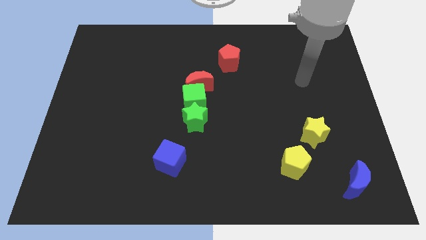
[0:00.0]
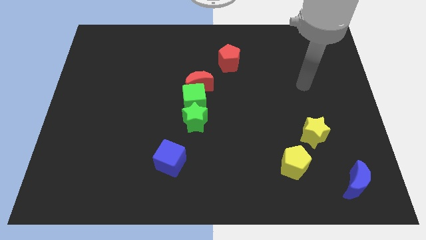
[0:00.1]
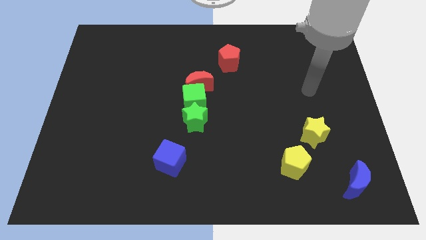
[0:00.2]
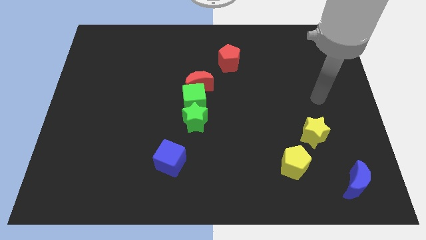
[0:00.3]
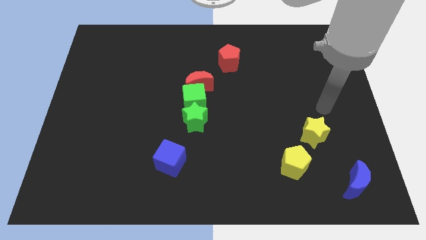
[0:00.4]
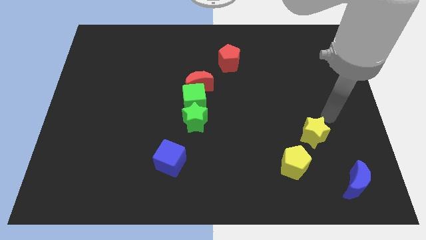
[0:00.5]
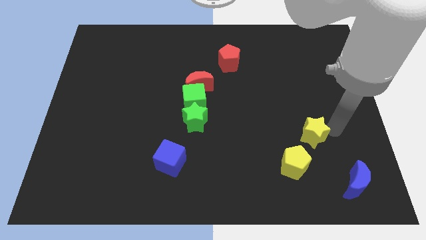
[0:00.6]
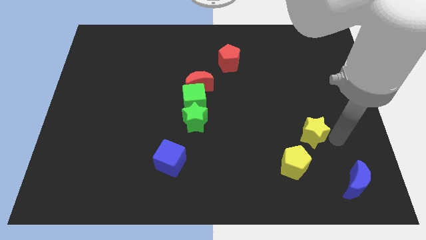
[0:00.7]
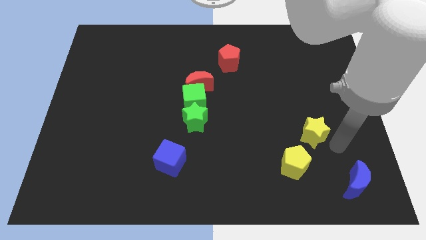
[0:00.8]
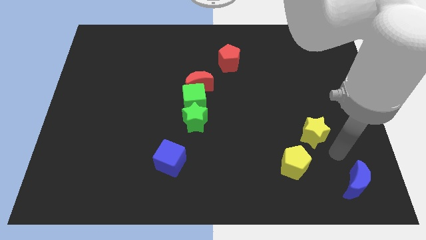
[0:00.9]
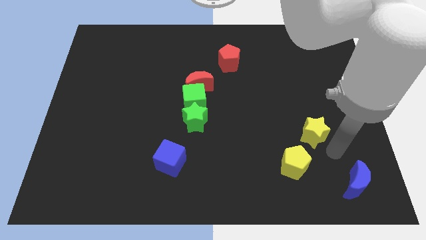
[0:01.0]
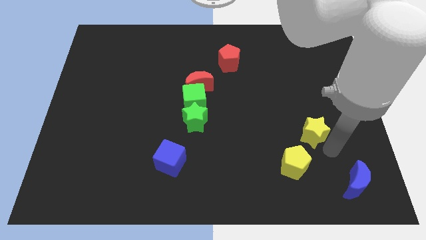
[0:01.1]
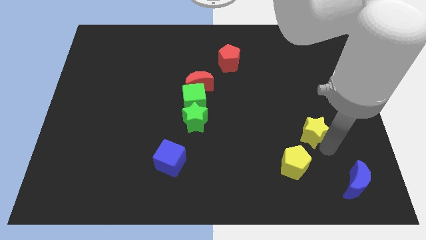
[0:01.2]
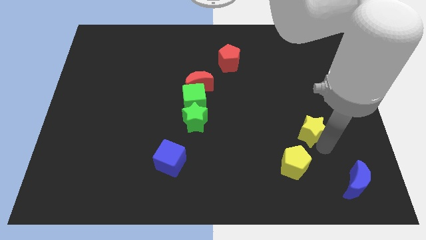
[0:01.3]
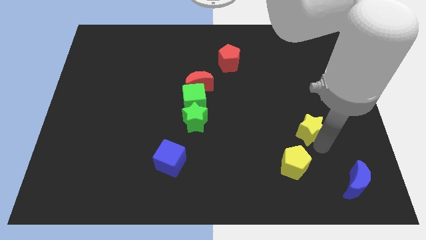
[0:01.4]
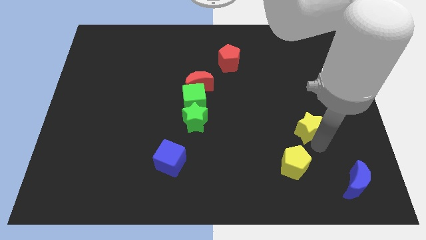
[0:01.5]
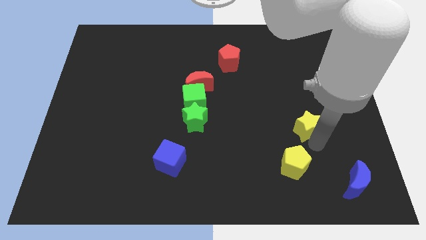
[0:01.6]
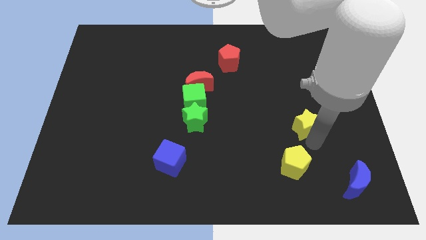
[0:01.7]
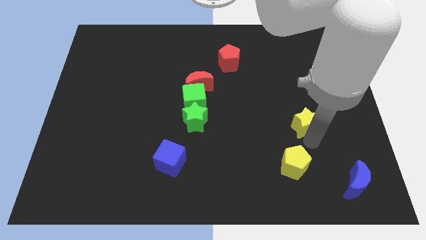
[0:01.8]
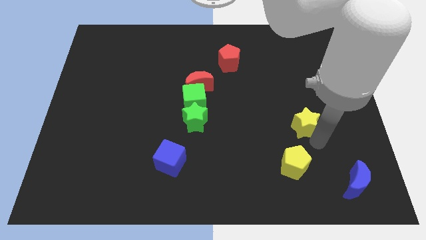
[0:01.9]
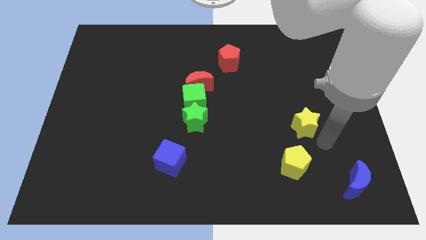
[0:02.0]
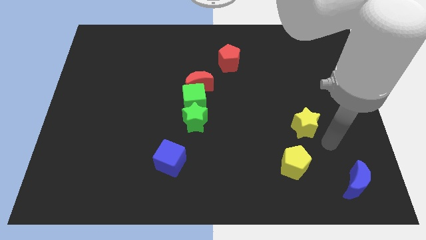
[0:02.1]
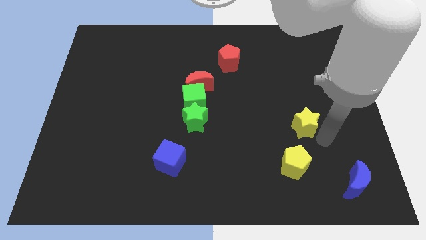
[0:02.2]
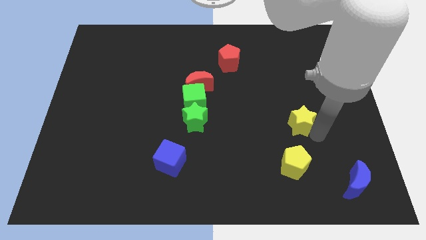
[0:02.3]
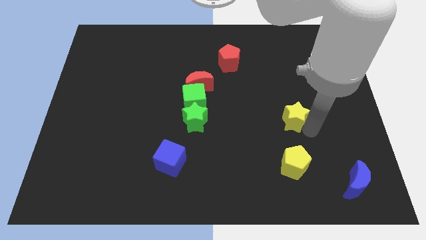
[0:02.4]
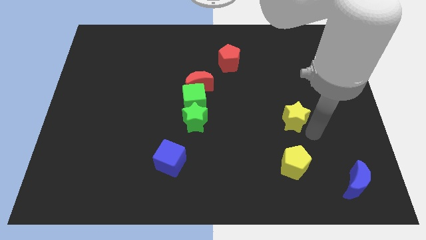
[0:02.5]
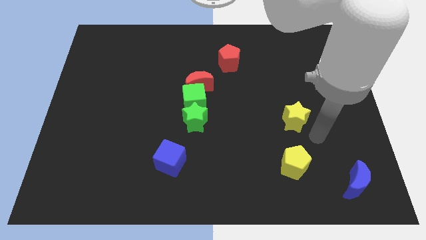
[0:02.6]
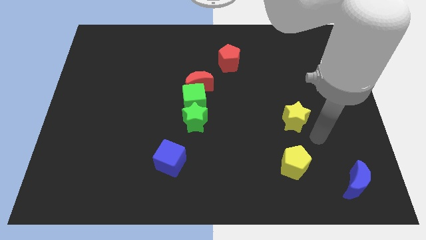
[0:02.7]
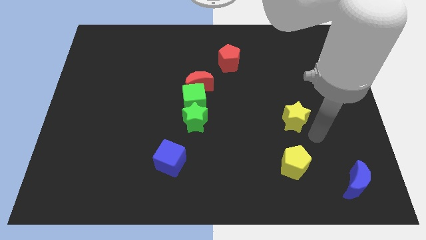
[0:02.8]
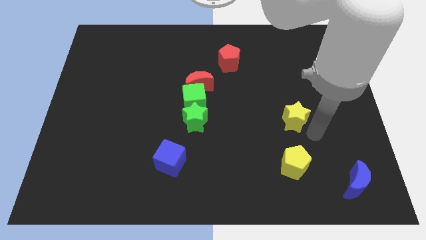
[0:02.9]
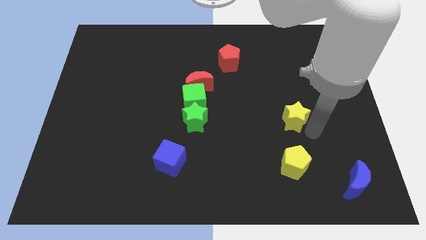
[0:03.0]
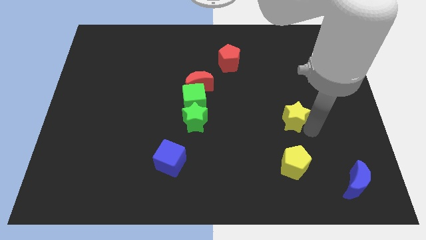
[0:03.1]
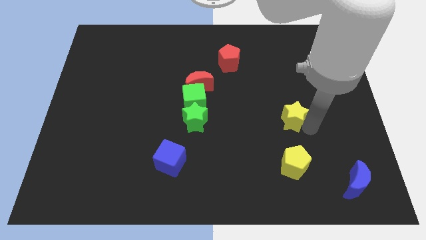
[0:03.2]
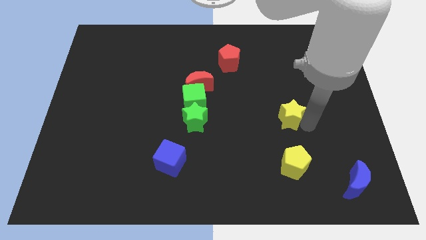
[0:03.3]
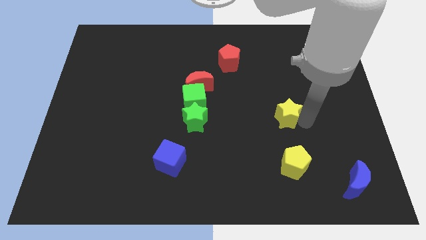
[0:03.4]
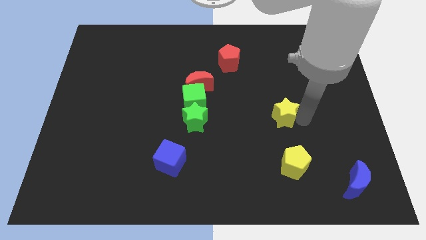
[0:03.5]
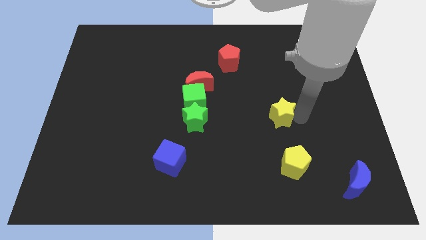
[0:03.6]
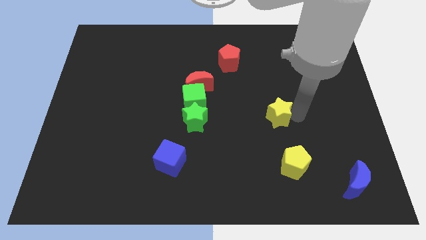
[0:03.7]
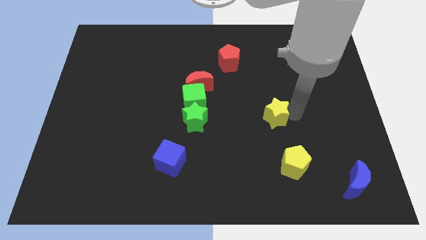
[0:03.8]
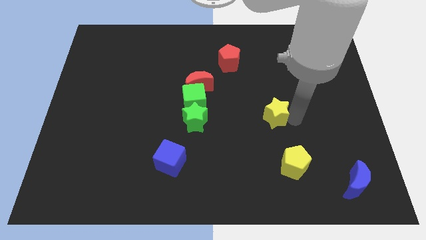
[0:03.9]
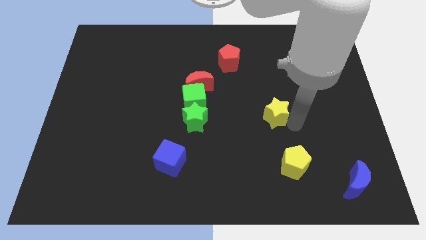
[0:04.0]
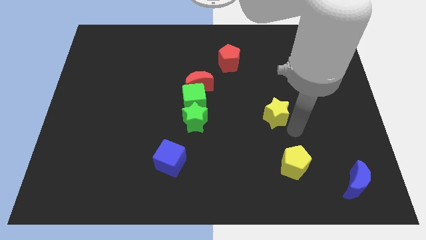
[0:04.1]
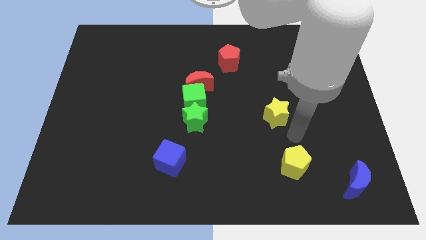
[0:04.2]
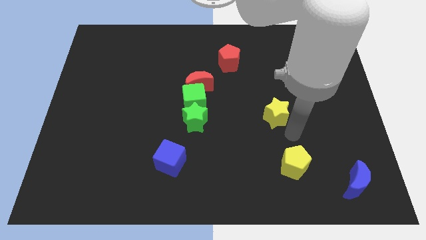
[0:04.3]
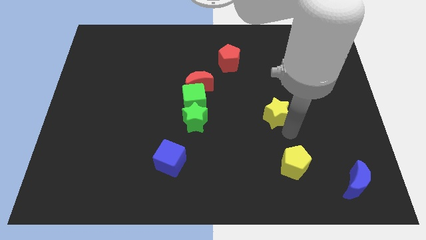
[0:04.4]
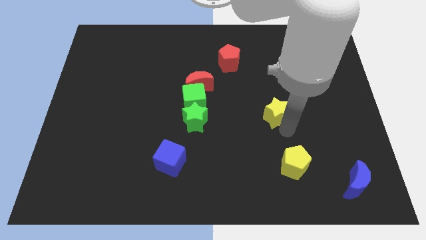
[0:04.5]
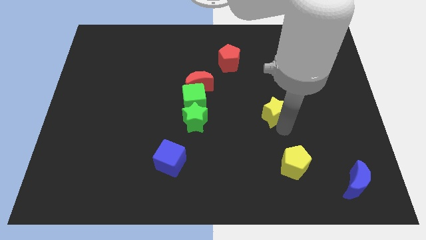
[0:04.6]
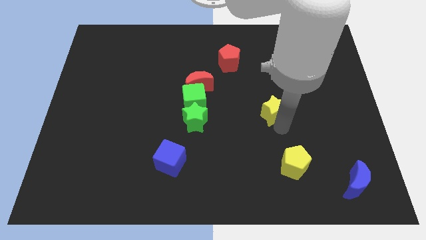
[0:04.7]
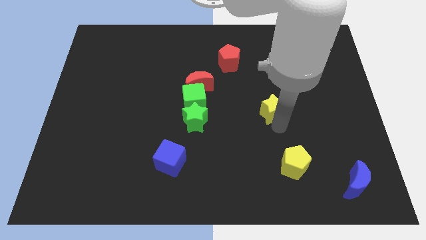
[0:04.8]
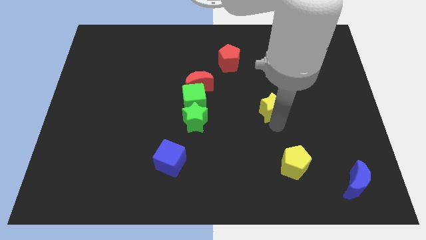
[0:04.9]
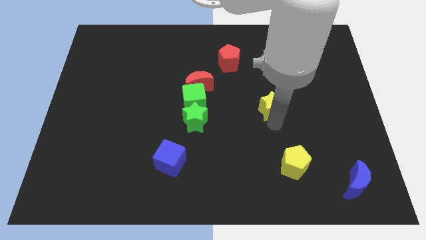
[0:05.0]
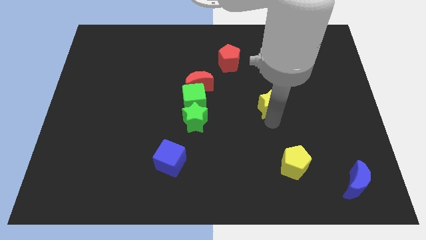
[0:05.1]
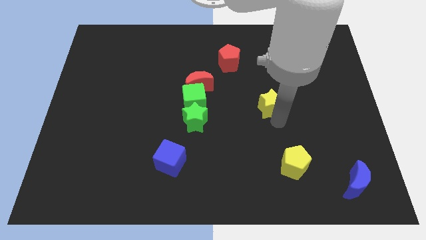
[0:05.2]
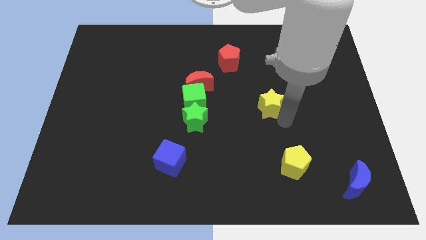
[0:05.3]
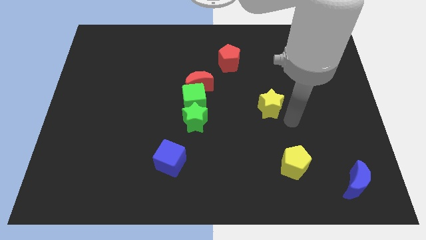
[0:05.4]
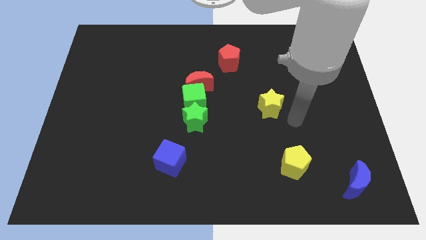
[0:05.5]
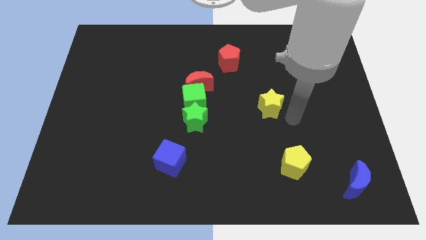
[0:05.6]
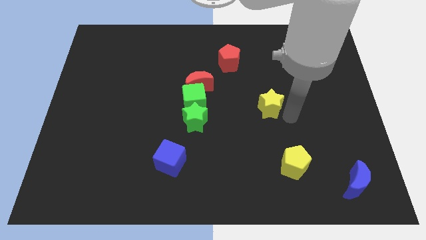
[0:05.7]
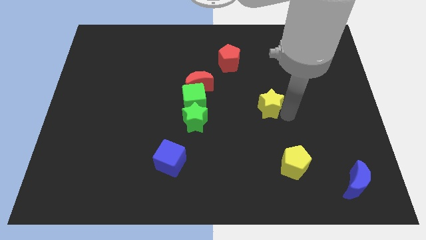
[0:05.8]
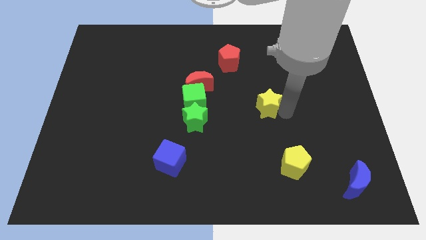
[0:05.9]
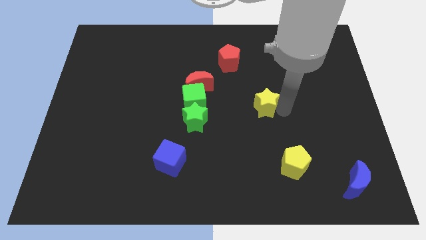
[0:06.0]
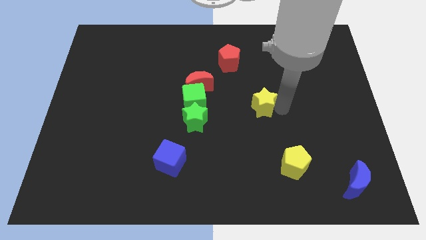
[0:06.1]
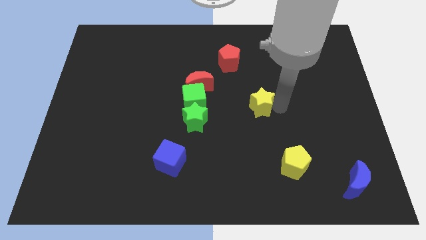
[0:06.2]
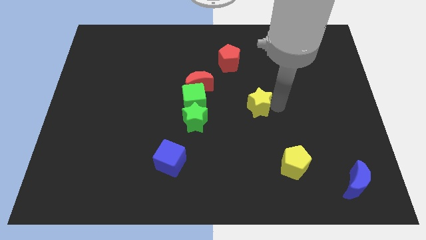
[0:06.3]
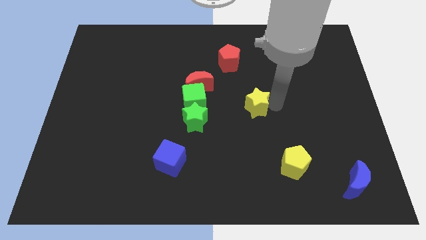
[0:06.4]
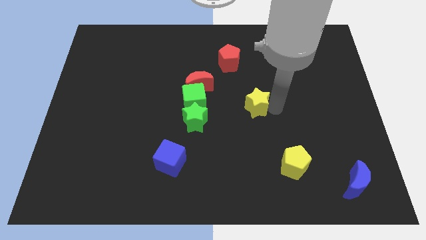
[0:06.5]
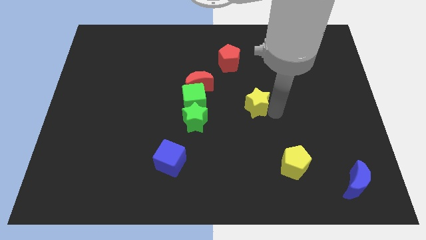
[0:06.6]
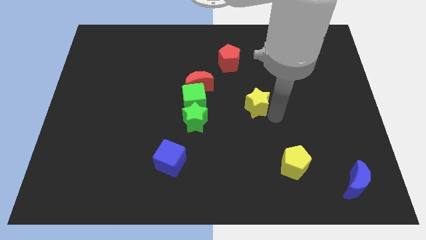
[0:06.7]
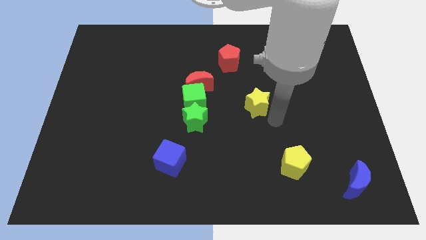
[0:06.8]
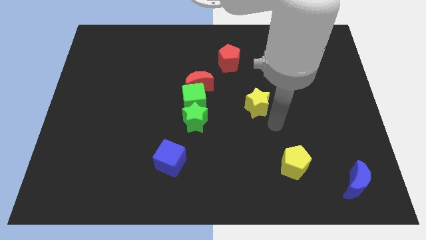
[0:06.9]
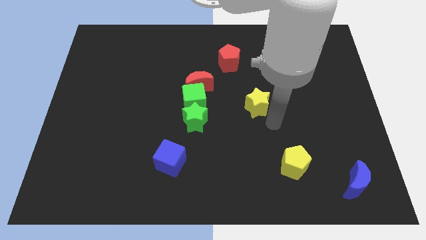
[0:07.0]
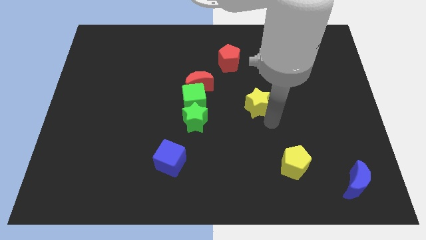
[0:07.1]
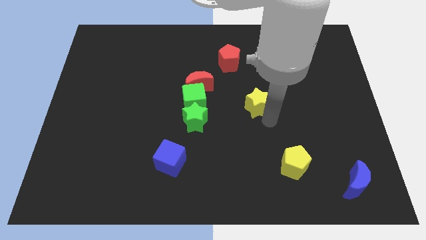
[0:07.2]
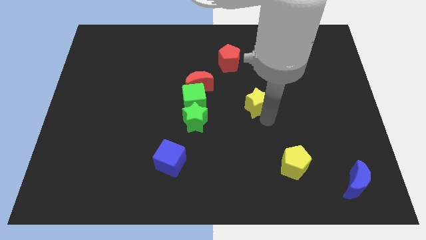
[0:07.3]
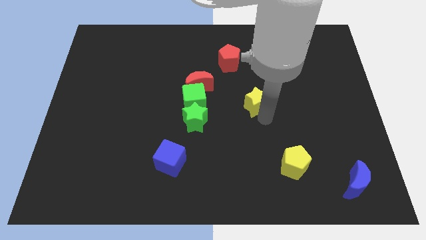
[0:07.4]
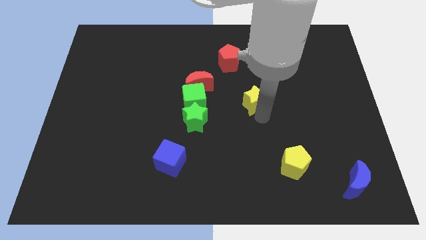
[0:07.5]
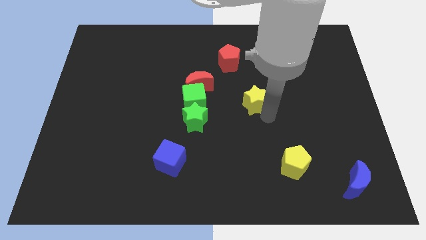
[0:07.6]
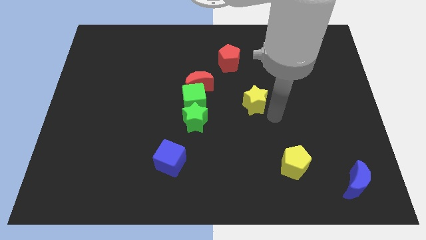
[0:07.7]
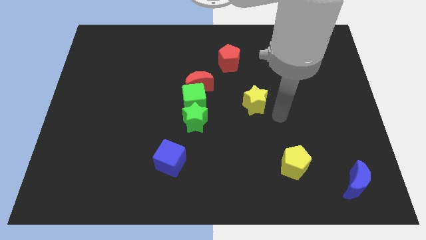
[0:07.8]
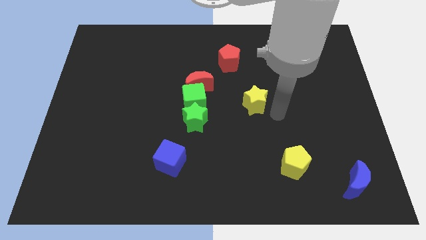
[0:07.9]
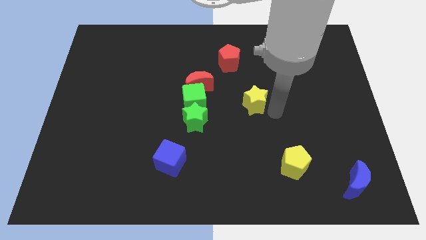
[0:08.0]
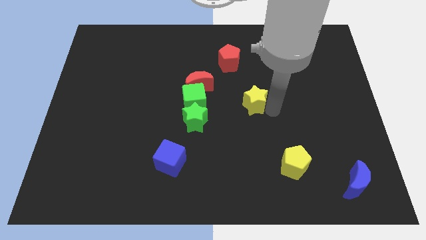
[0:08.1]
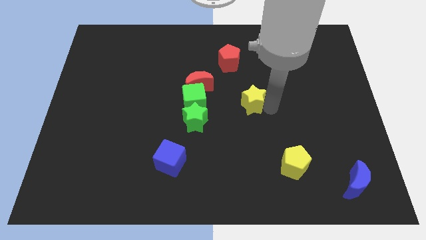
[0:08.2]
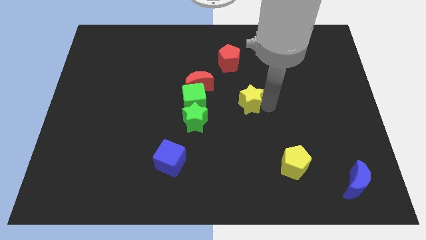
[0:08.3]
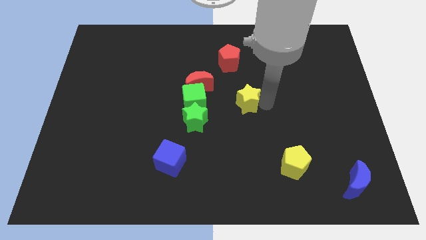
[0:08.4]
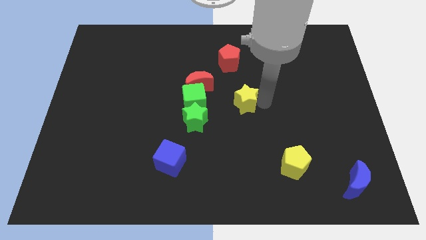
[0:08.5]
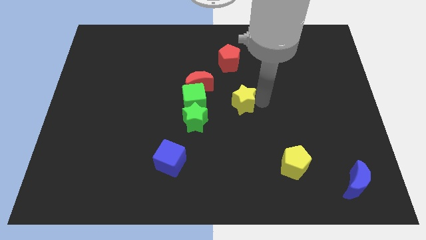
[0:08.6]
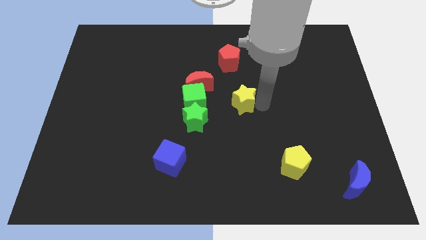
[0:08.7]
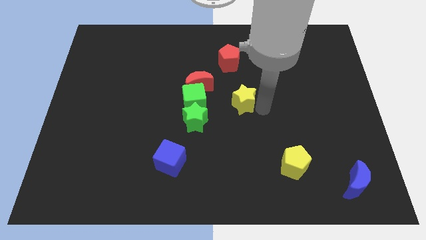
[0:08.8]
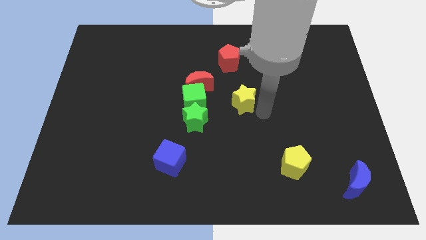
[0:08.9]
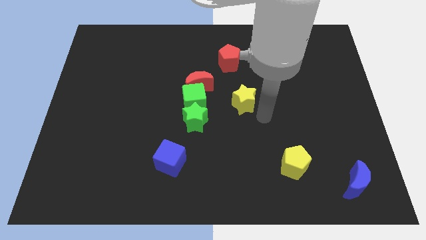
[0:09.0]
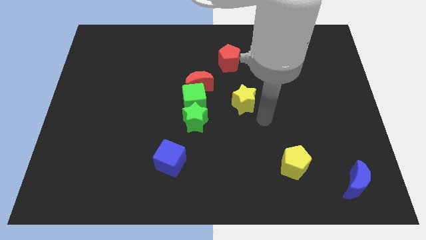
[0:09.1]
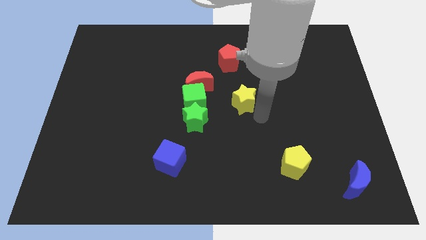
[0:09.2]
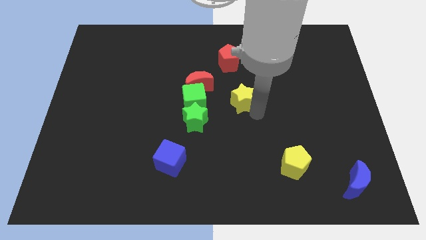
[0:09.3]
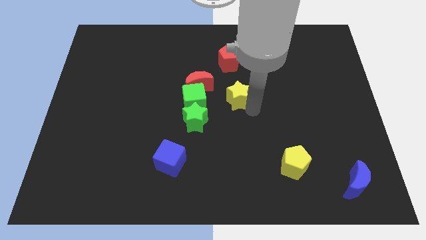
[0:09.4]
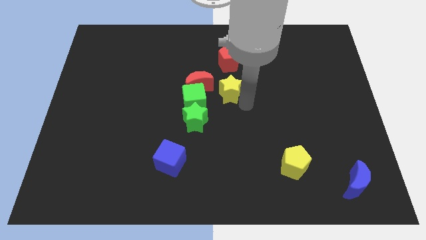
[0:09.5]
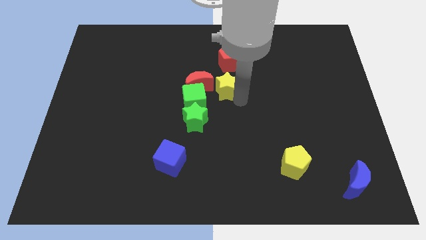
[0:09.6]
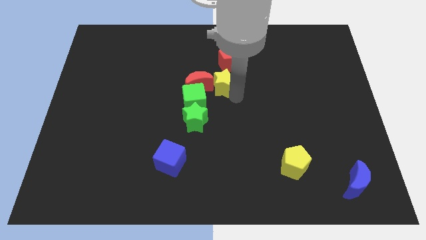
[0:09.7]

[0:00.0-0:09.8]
move the yellow star close to the red moon
